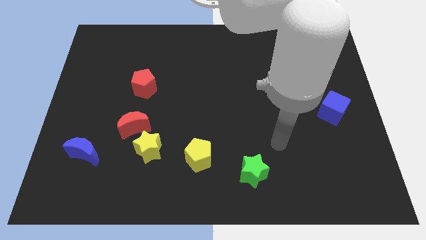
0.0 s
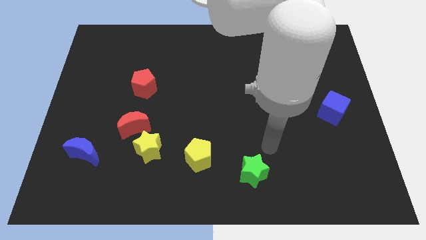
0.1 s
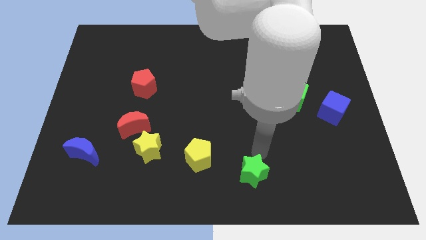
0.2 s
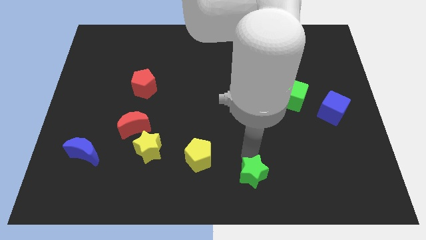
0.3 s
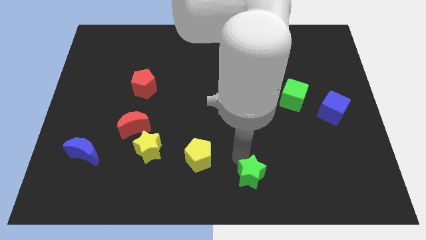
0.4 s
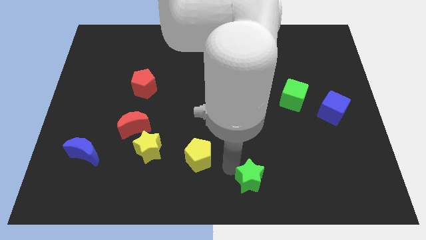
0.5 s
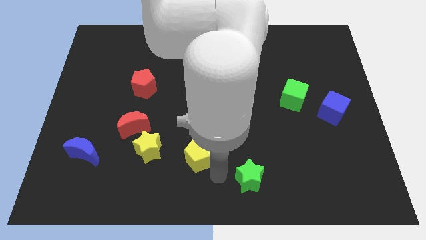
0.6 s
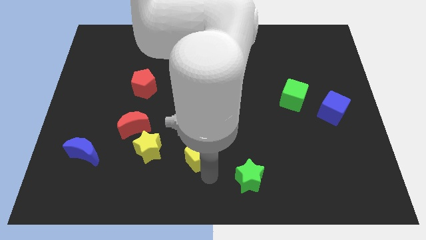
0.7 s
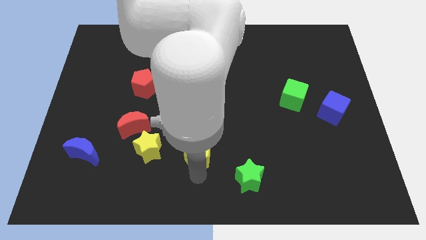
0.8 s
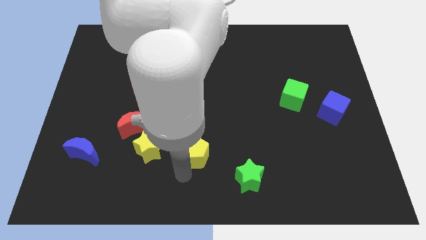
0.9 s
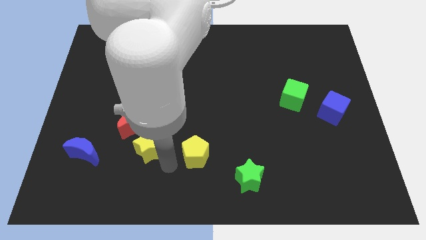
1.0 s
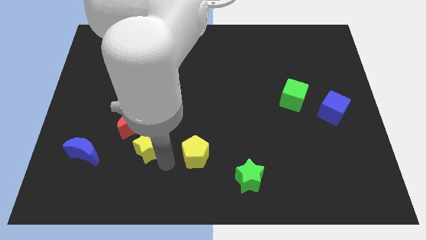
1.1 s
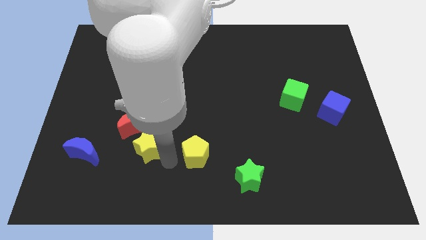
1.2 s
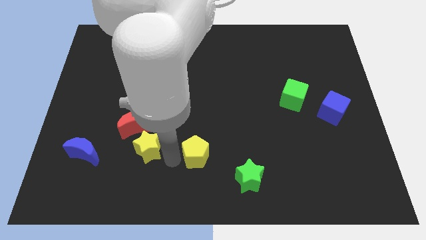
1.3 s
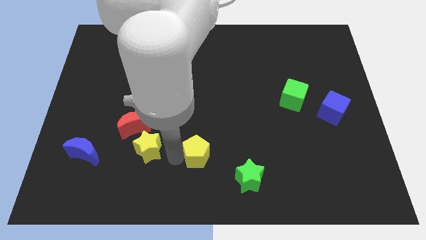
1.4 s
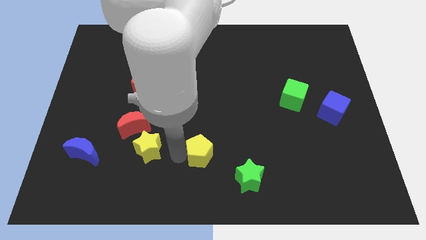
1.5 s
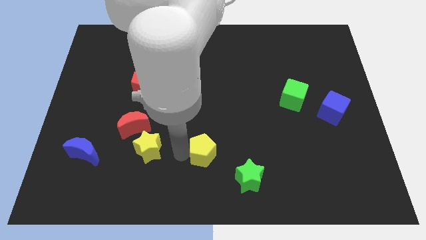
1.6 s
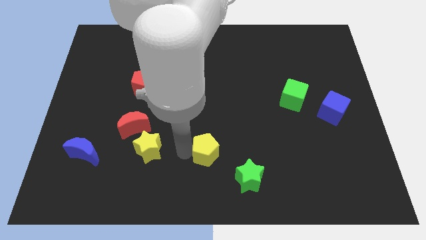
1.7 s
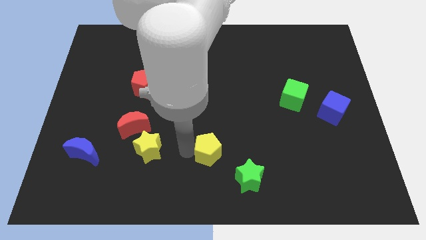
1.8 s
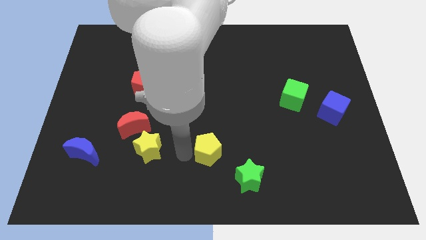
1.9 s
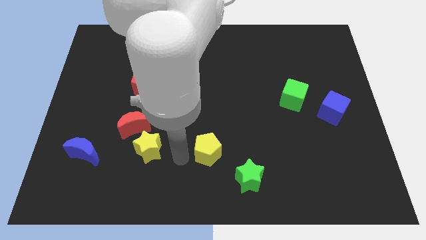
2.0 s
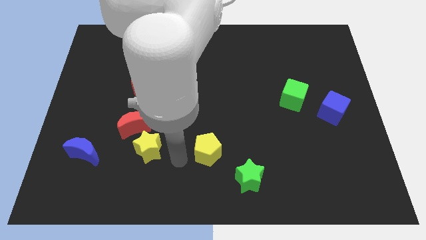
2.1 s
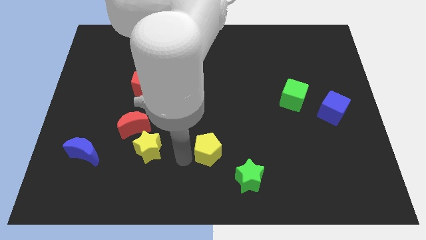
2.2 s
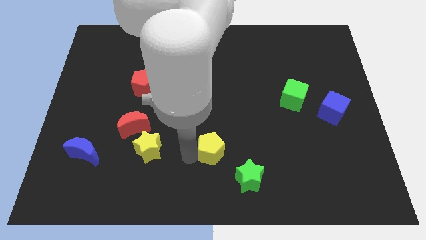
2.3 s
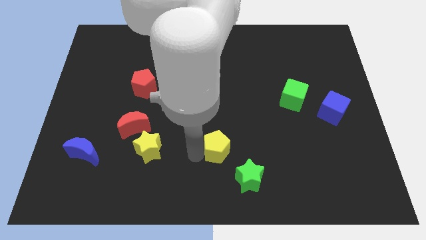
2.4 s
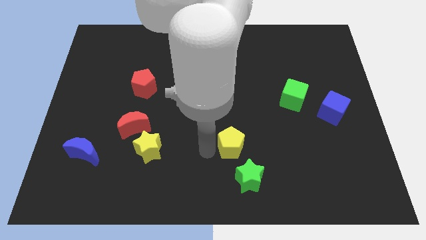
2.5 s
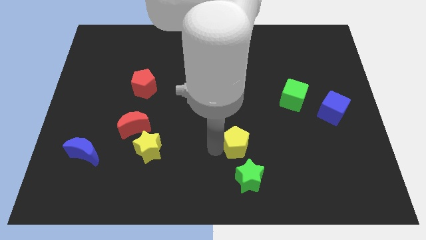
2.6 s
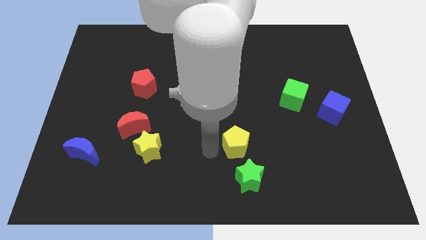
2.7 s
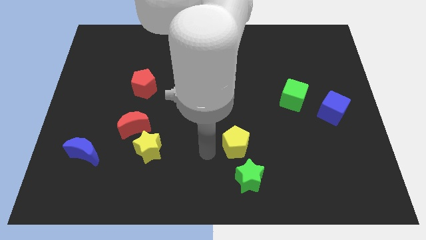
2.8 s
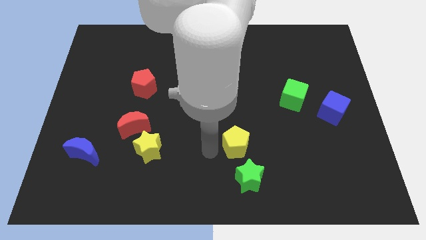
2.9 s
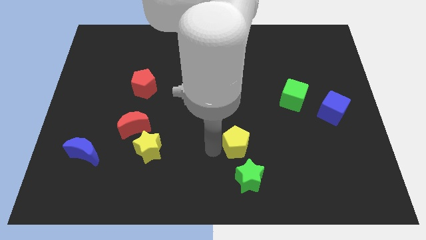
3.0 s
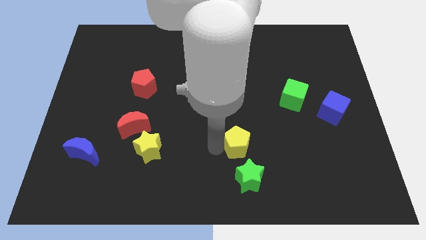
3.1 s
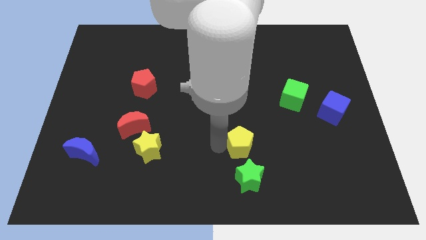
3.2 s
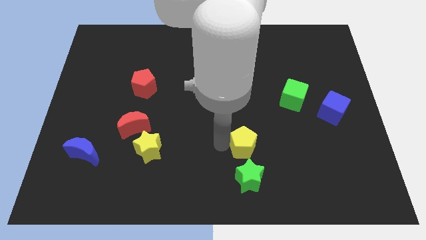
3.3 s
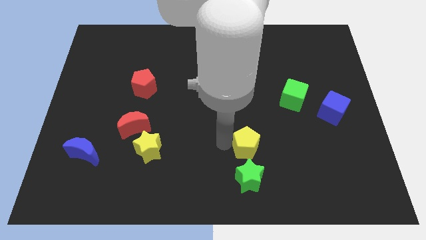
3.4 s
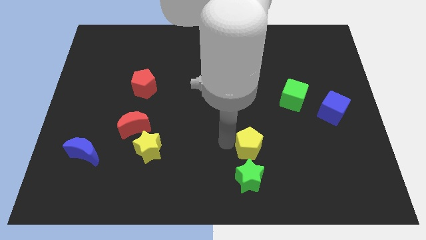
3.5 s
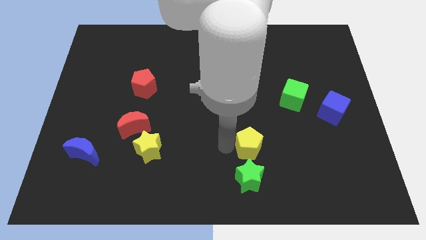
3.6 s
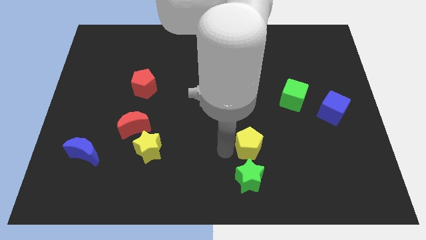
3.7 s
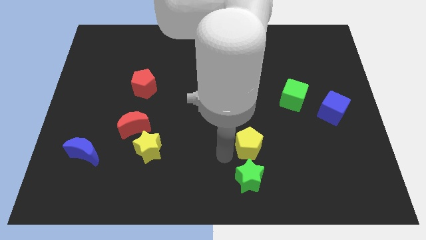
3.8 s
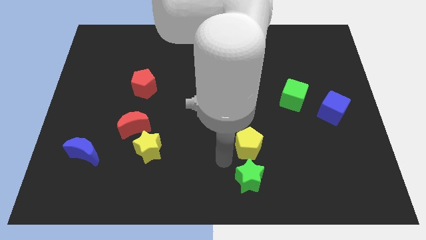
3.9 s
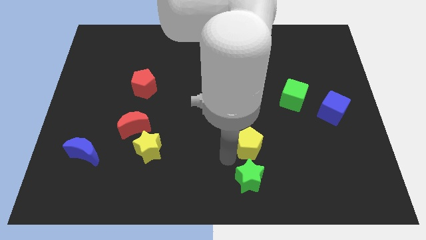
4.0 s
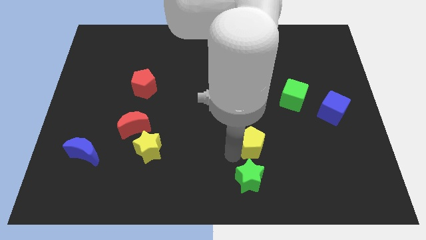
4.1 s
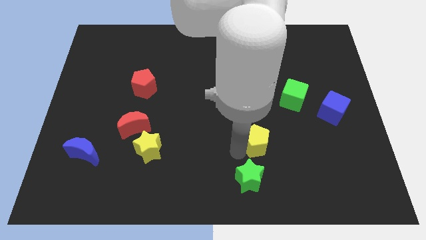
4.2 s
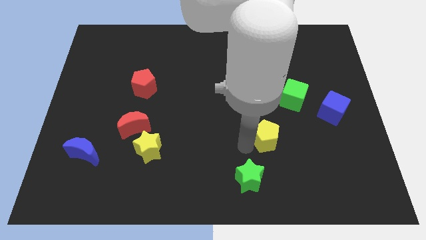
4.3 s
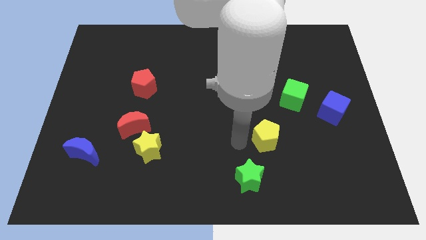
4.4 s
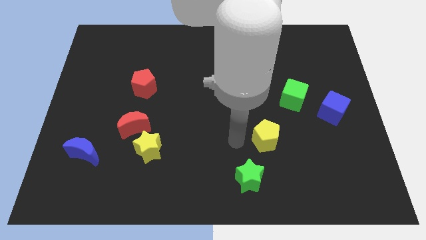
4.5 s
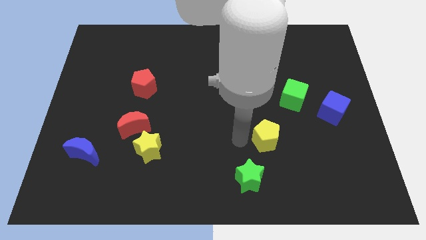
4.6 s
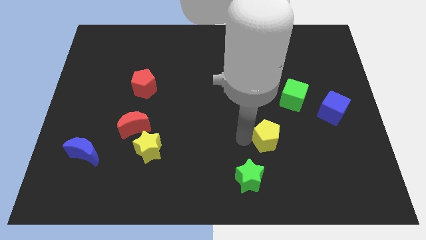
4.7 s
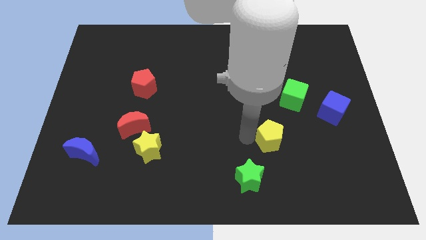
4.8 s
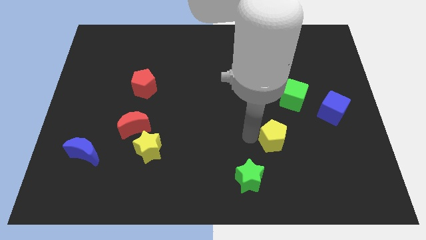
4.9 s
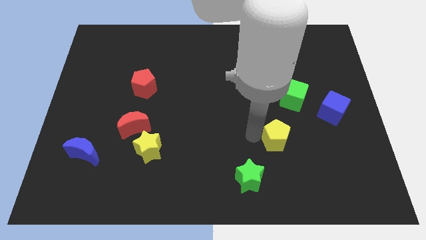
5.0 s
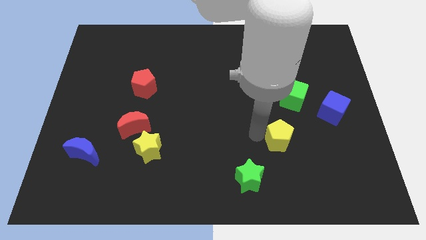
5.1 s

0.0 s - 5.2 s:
slide the yellow pentagon to the bottom side of the green cube
